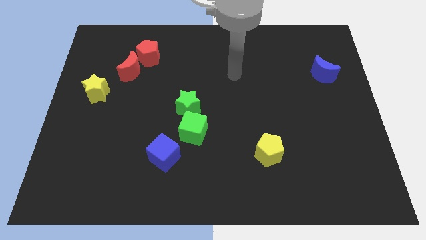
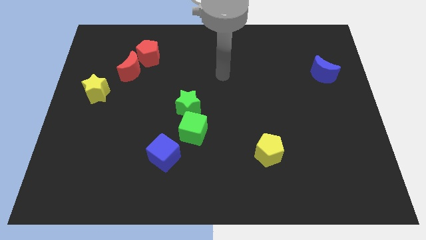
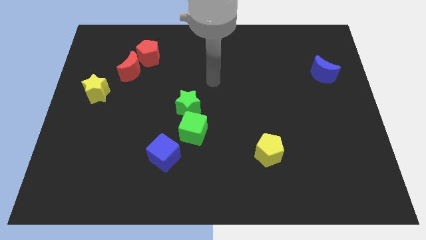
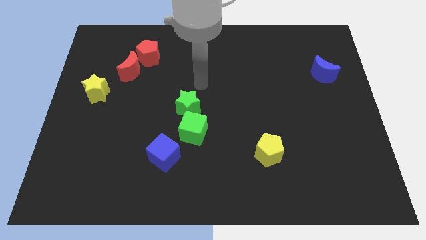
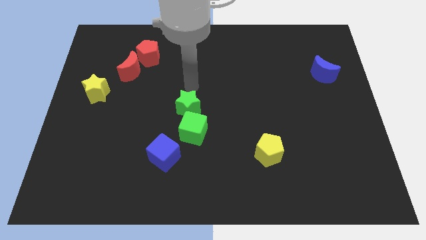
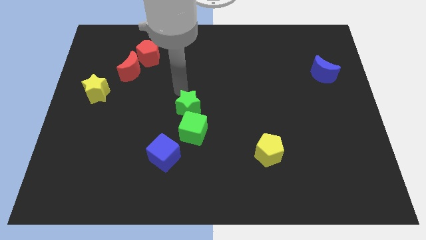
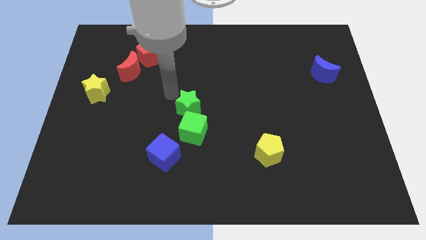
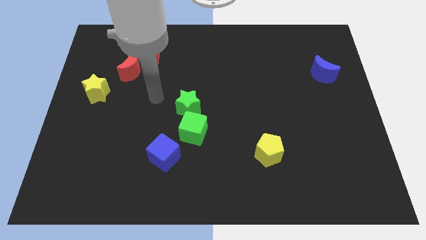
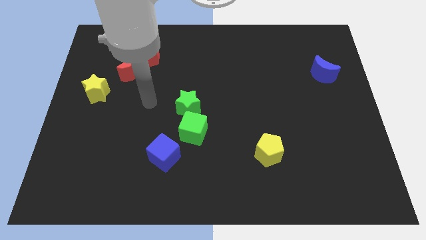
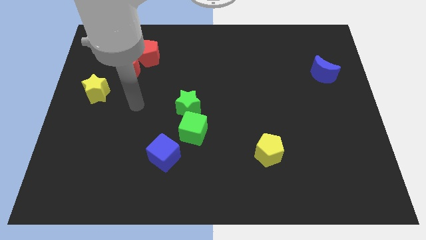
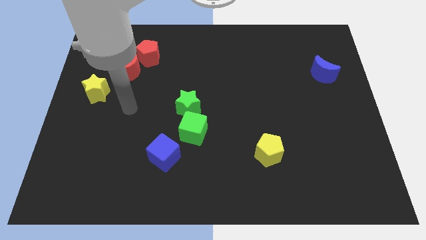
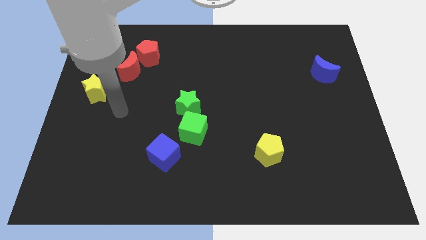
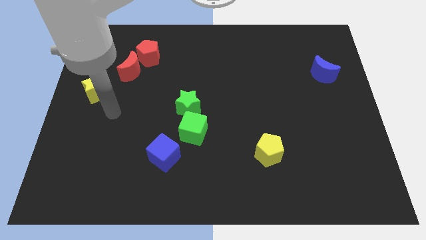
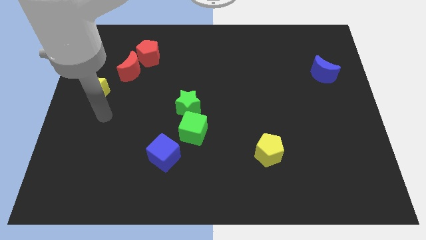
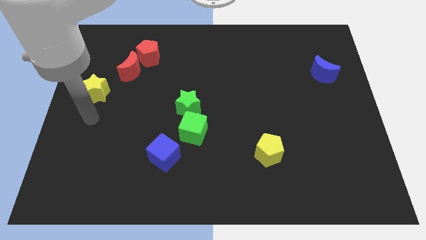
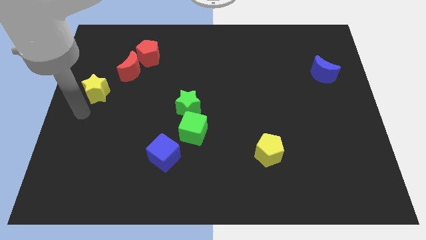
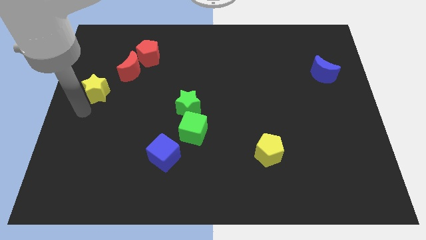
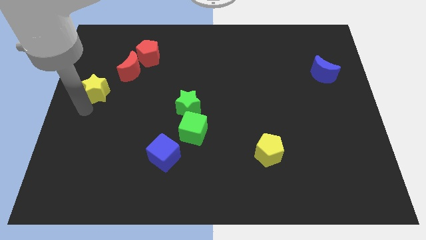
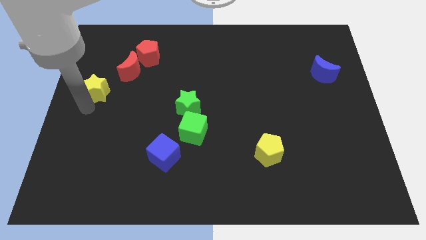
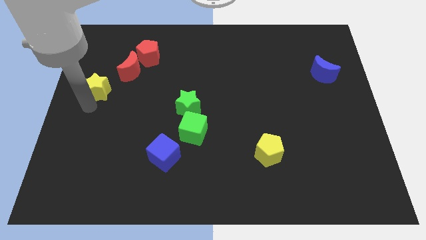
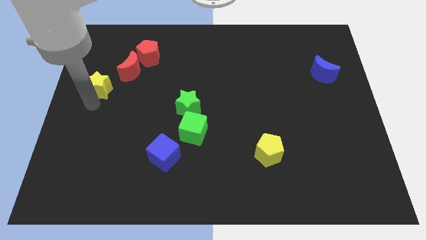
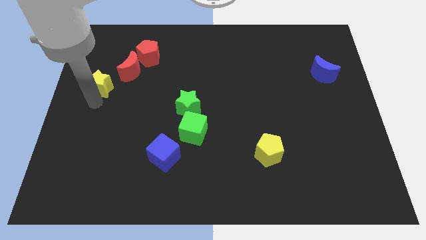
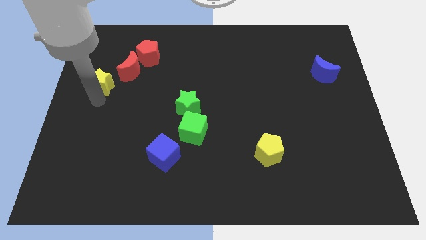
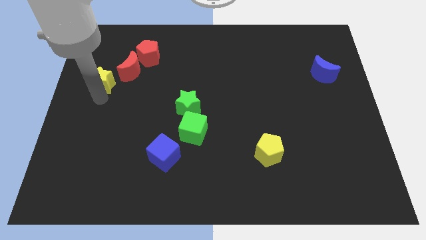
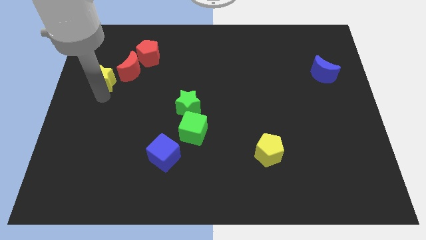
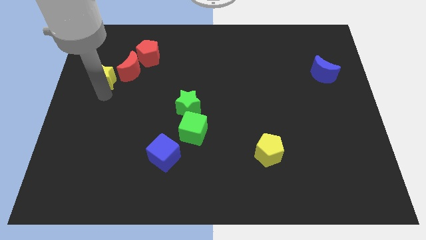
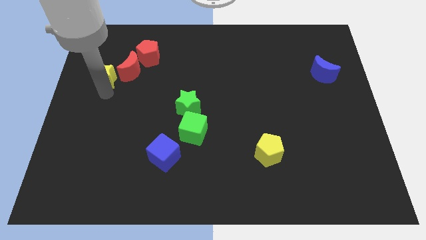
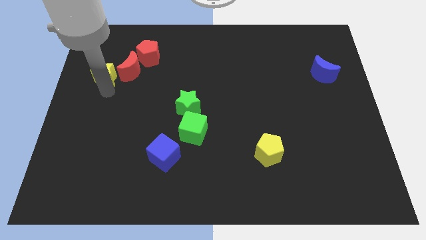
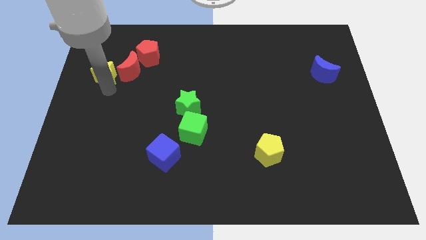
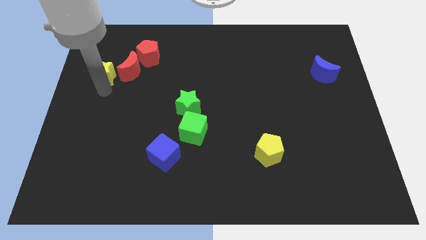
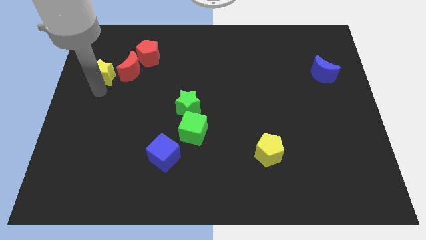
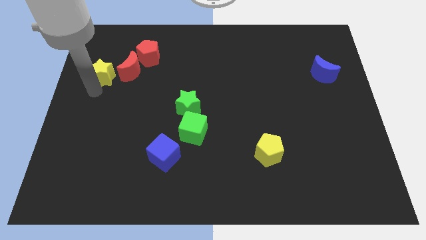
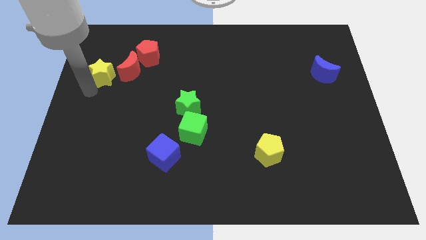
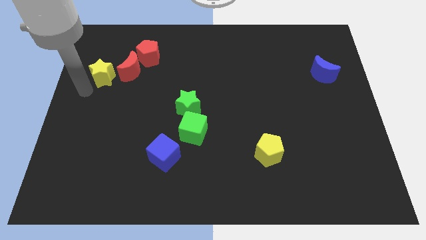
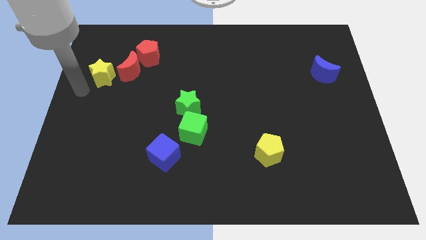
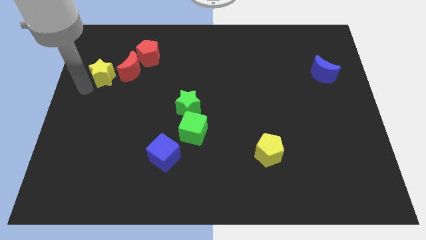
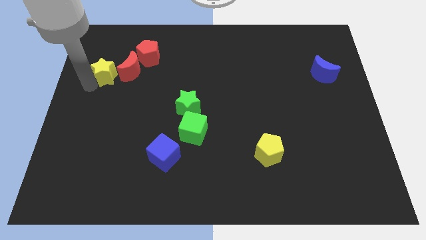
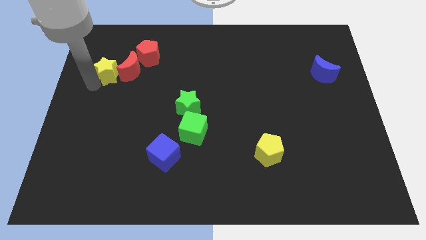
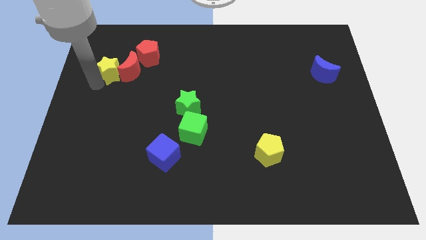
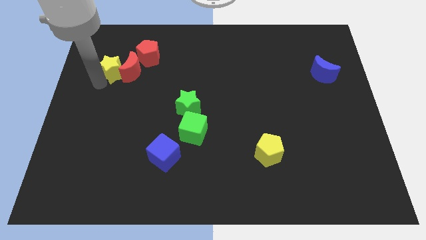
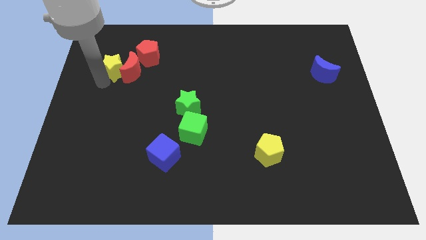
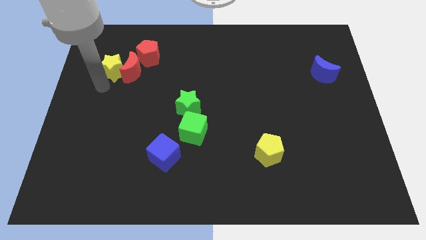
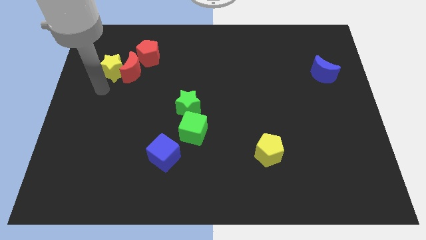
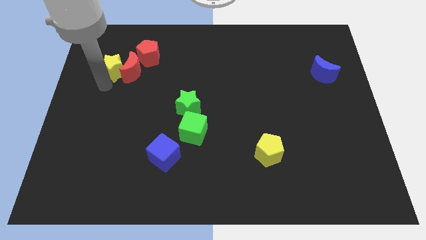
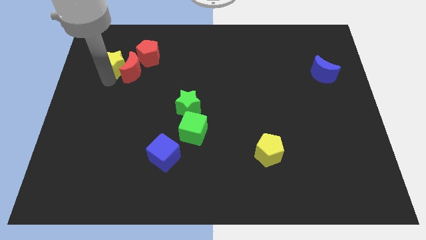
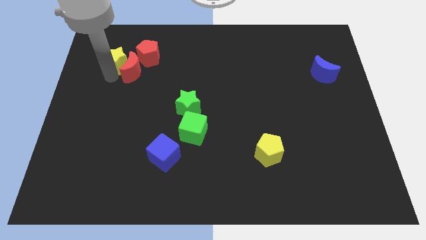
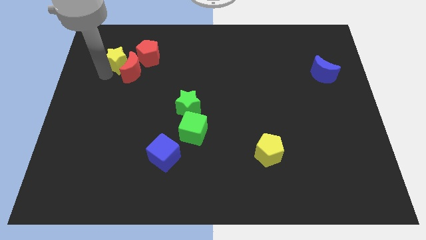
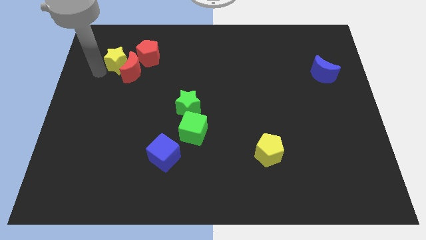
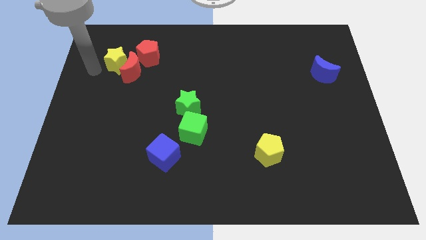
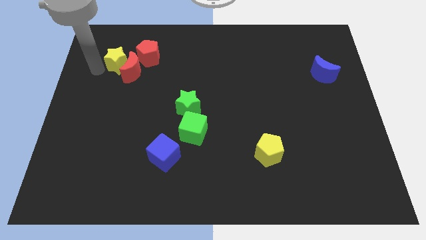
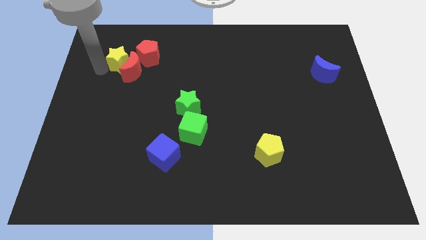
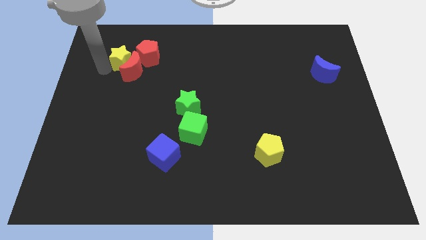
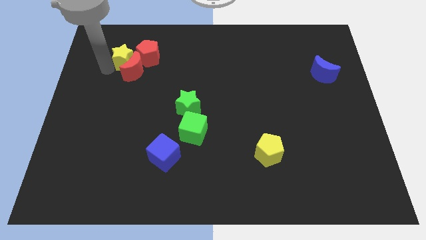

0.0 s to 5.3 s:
slide the yellow star next to the red pentagon

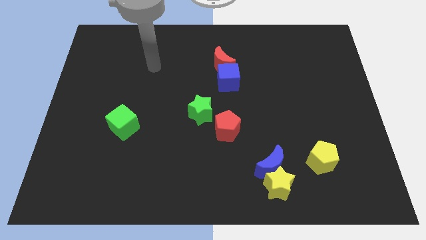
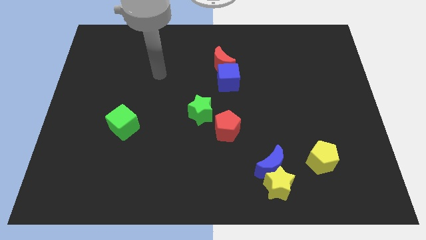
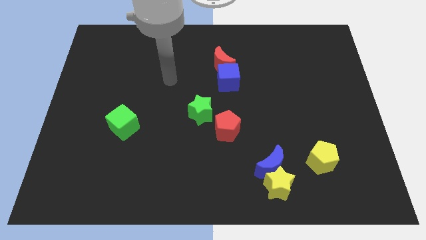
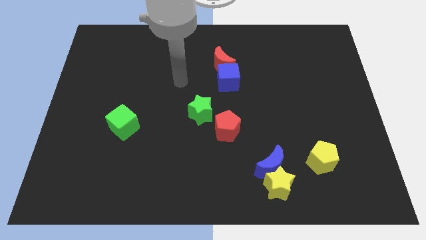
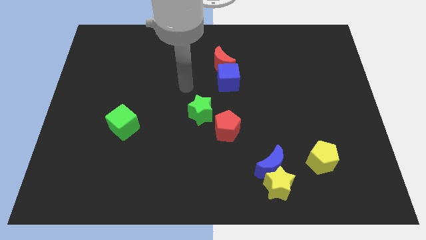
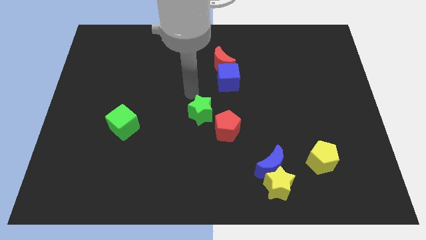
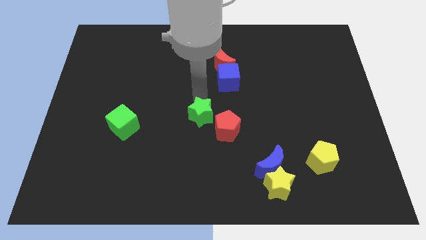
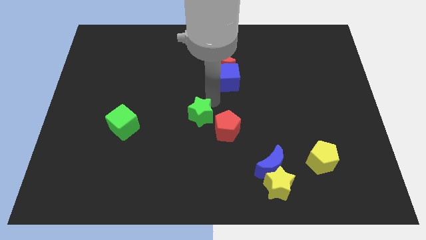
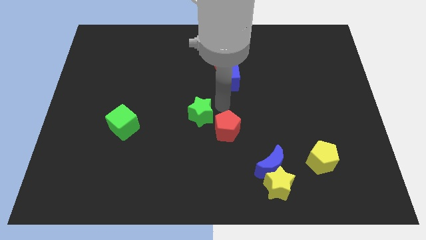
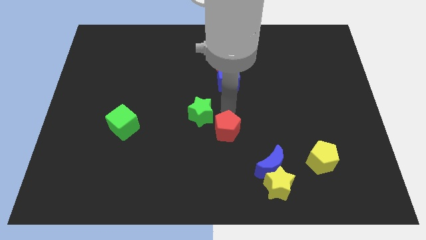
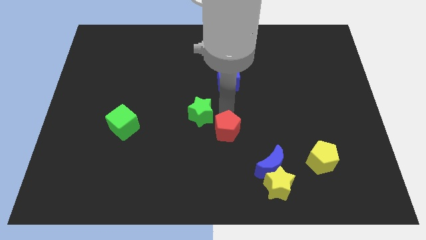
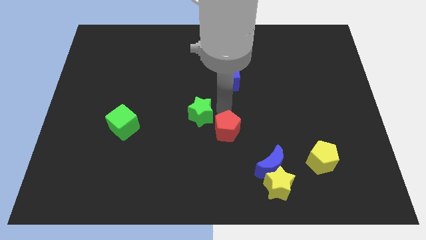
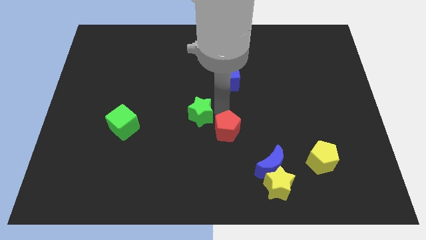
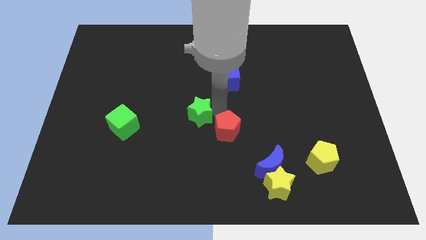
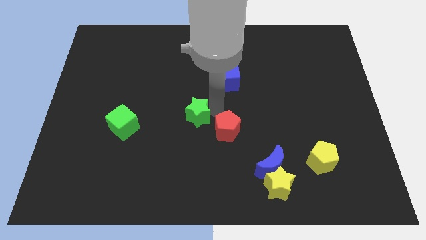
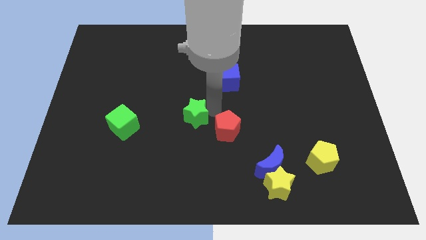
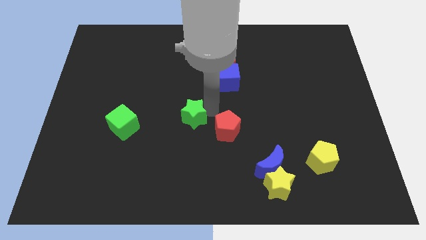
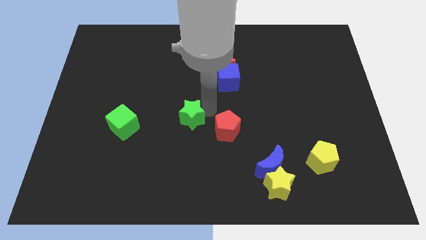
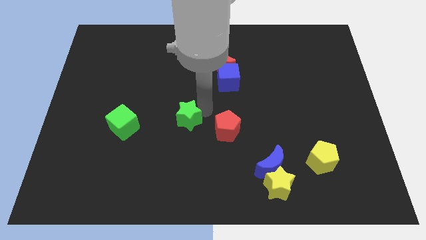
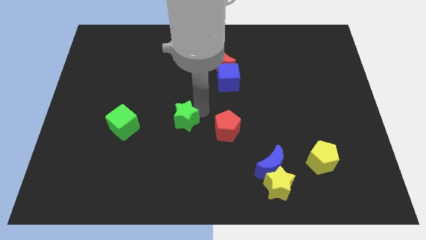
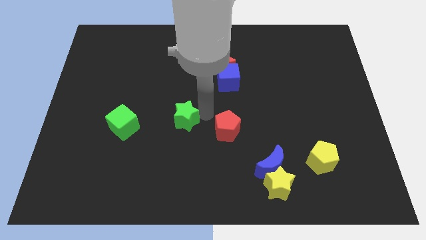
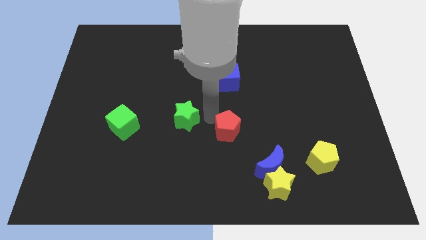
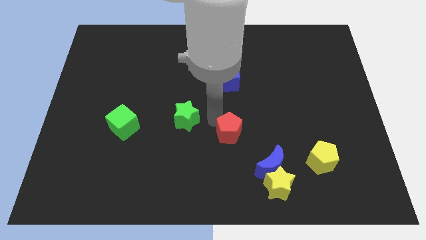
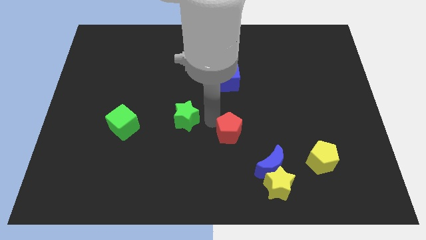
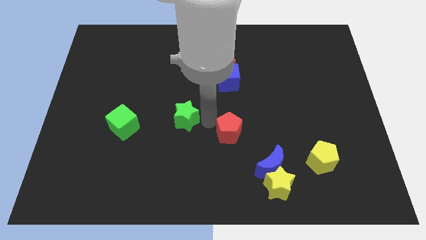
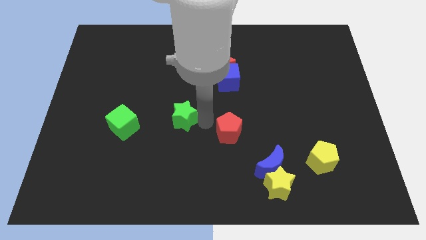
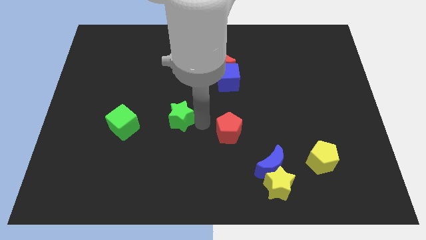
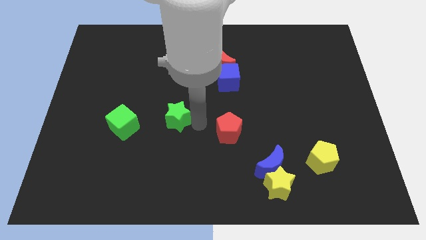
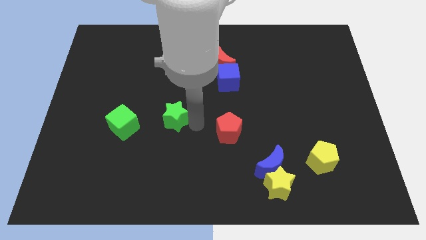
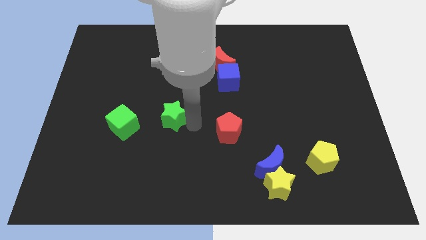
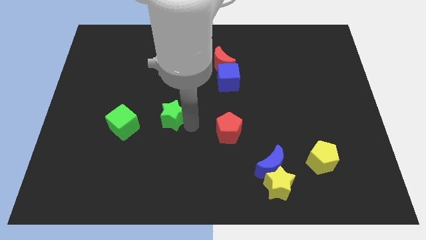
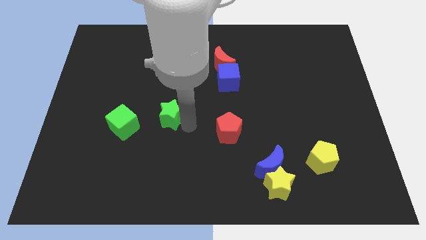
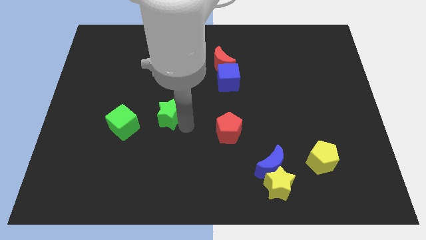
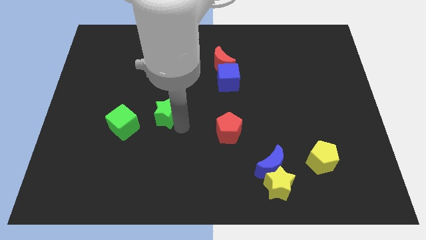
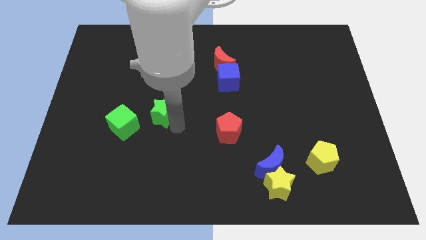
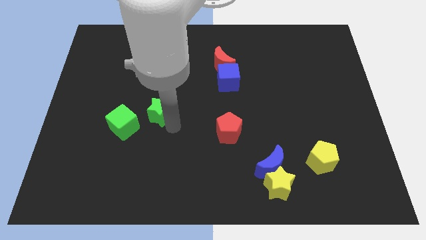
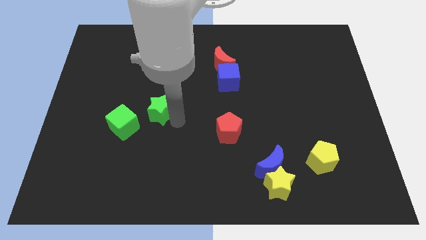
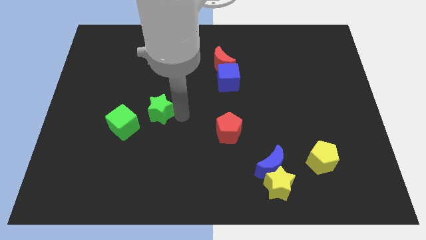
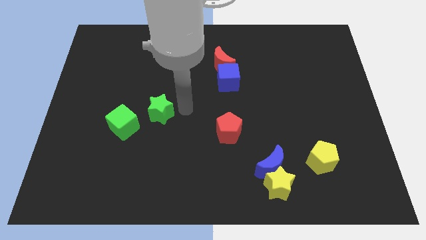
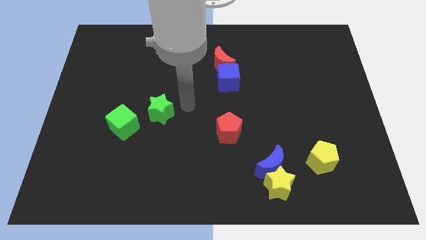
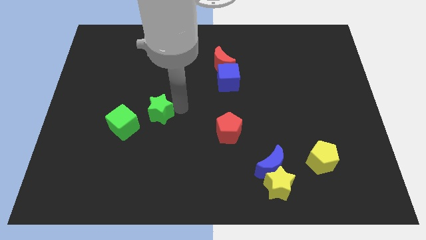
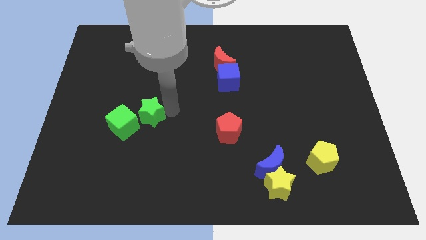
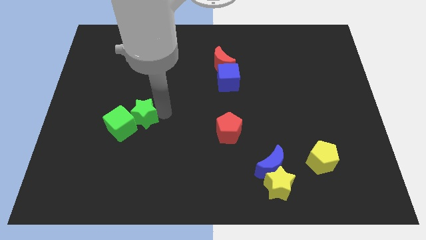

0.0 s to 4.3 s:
slide the green star towards the green cube
